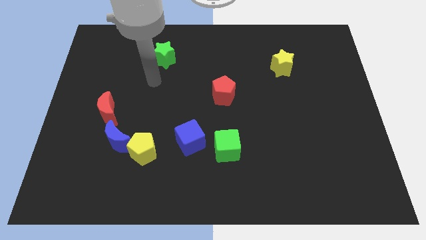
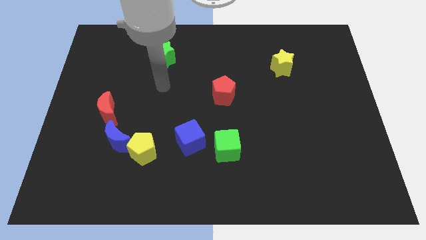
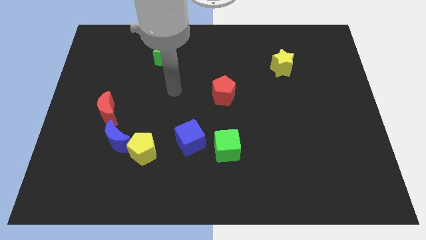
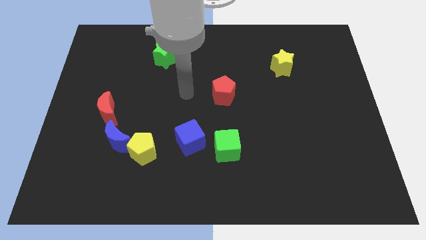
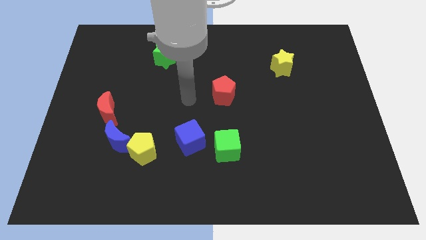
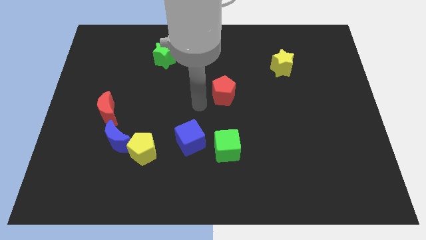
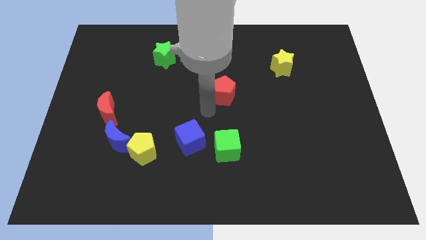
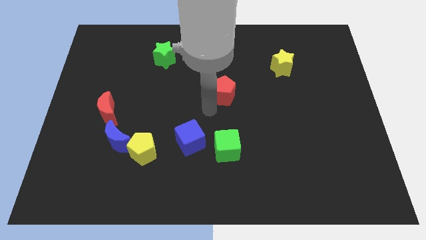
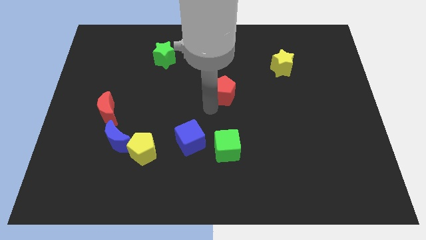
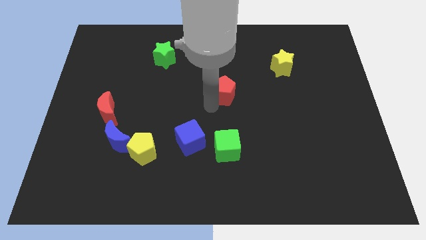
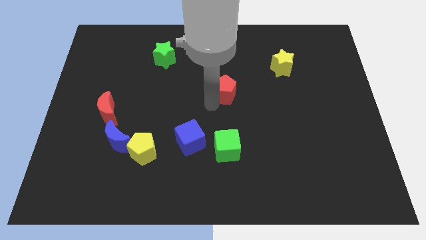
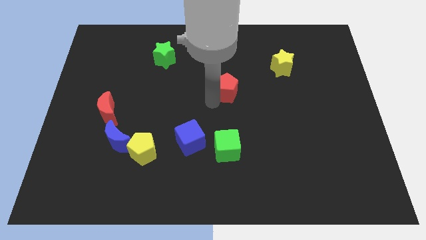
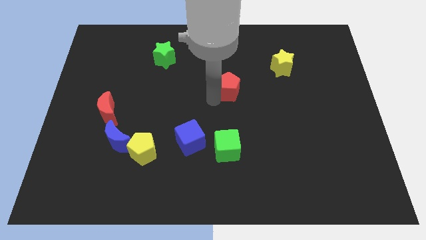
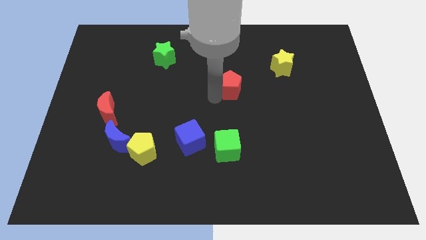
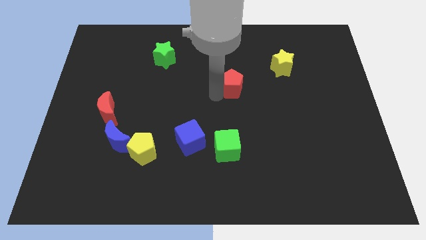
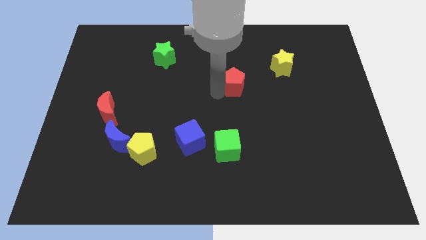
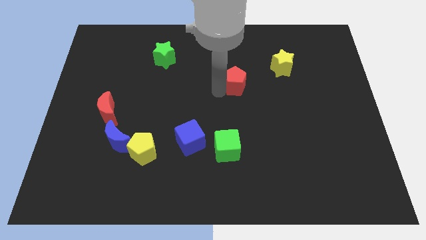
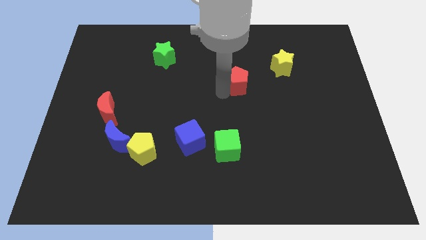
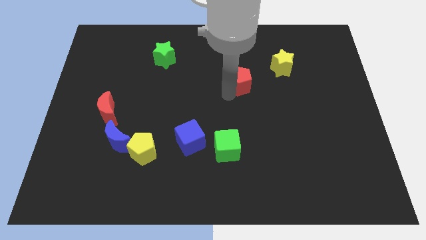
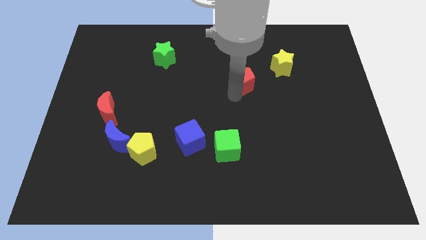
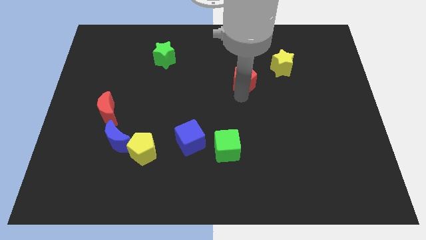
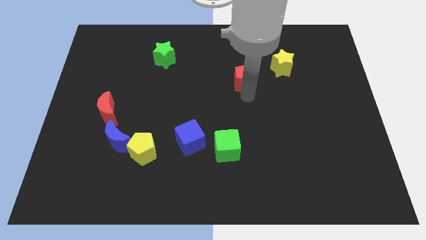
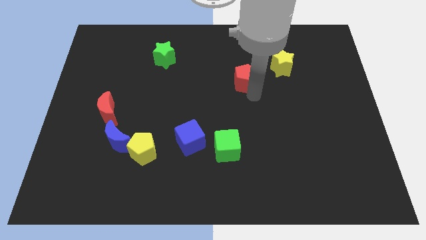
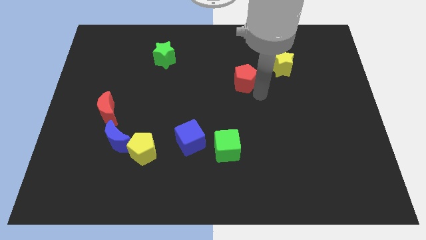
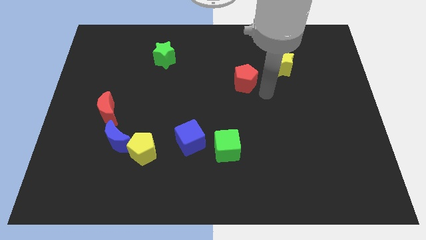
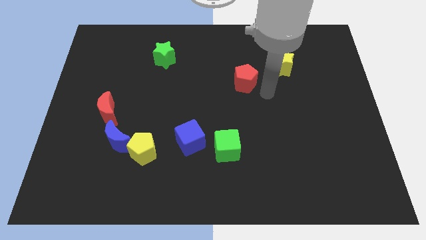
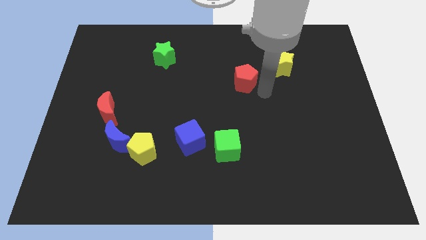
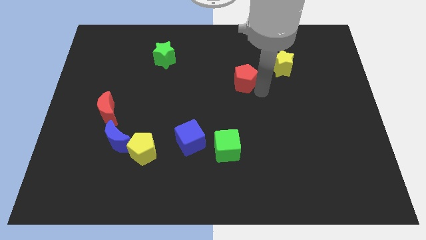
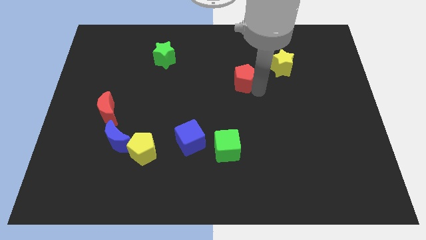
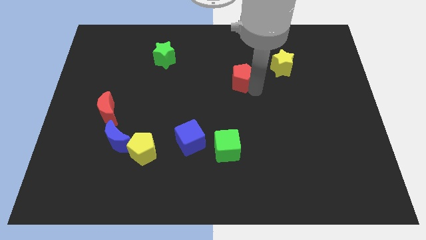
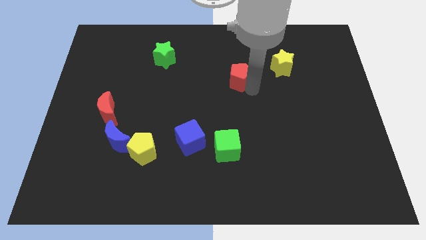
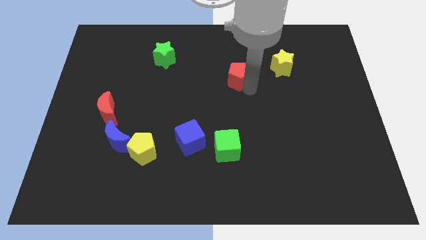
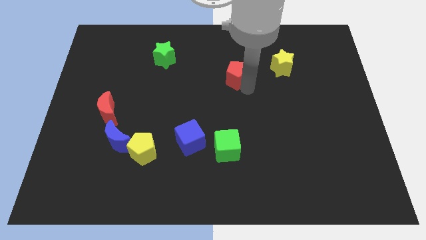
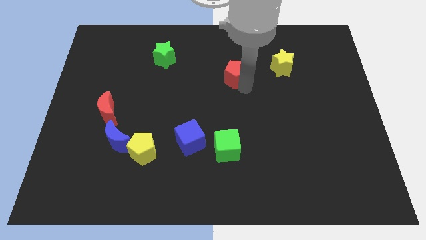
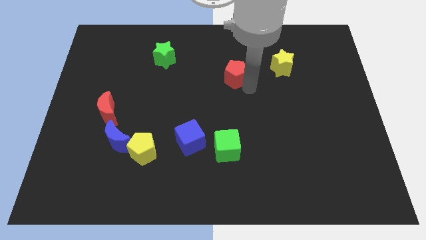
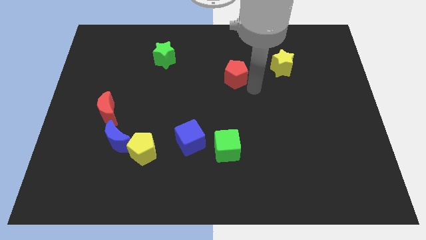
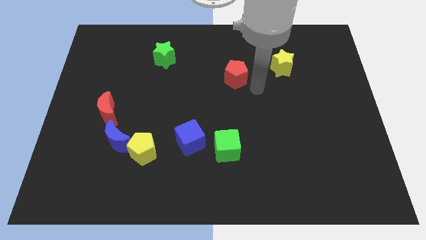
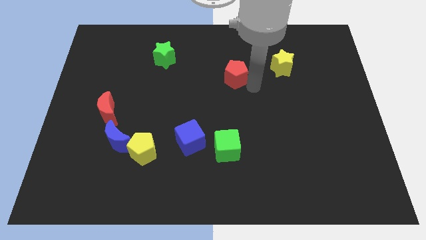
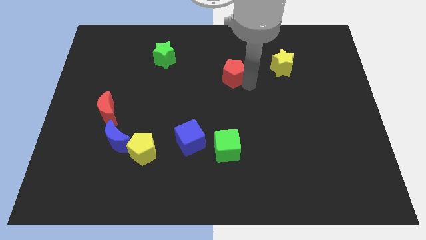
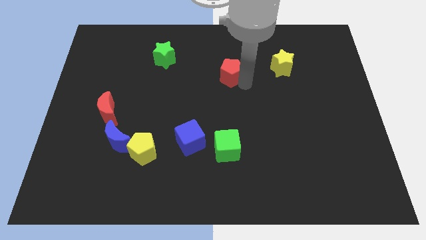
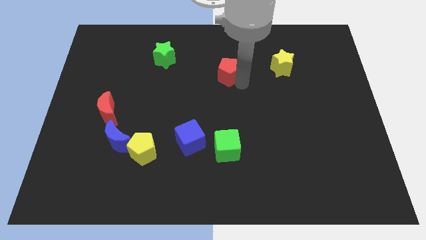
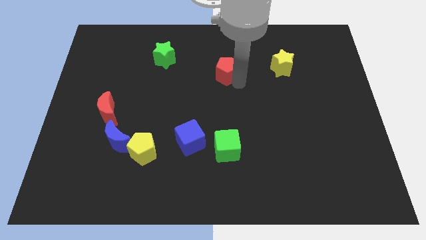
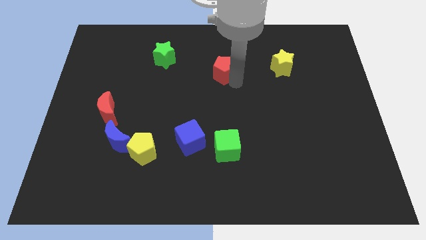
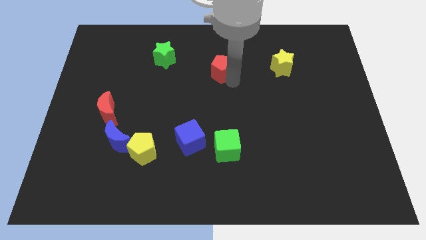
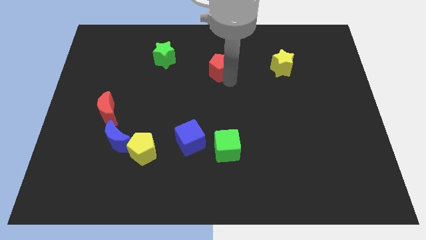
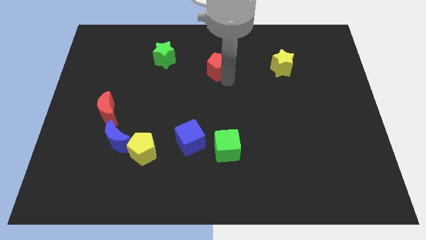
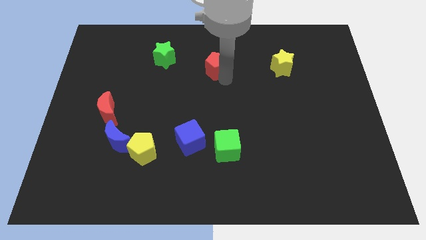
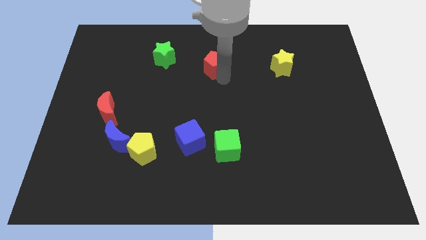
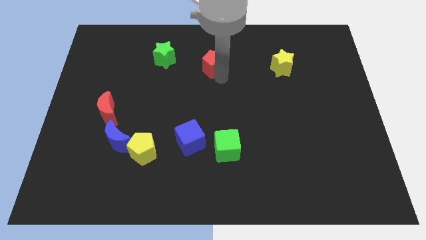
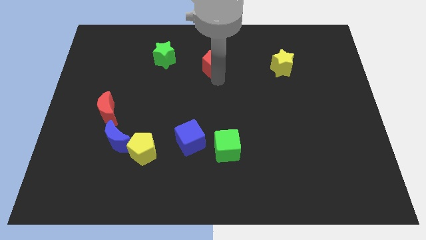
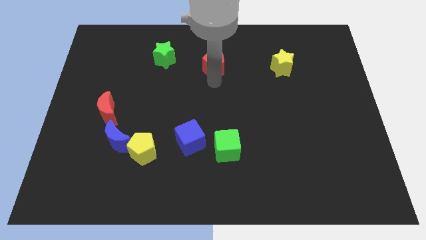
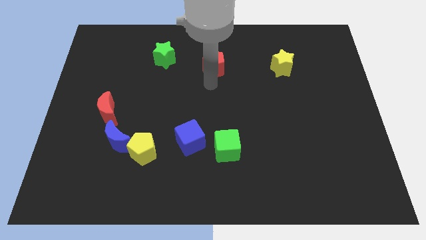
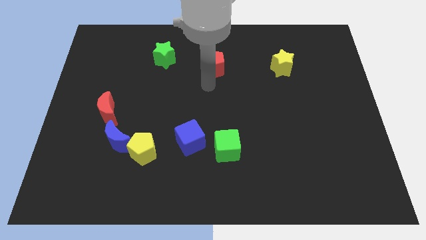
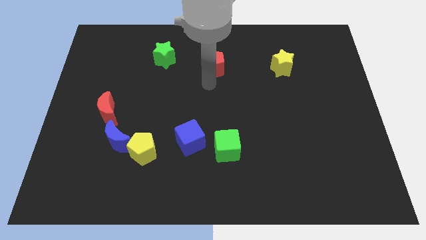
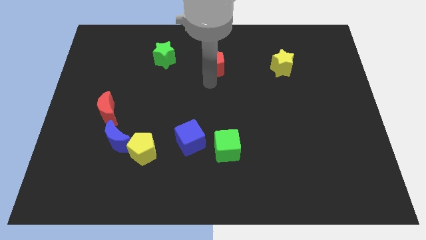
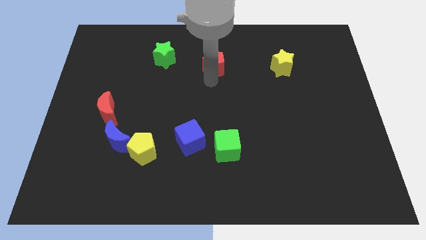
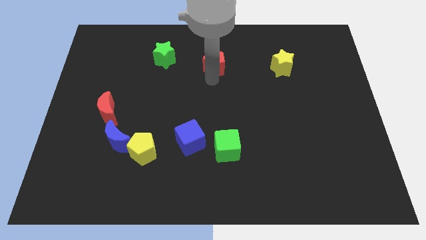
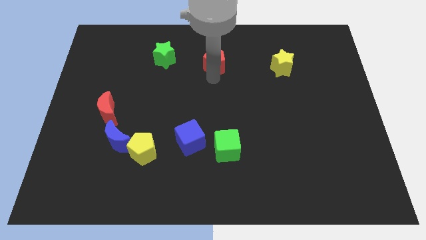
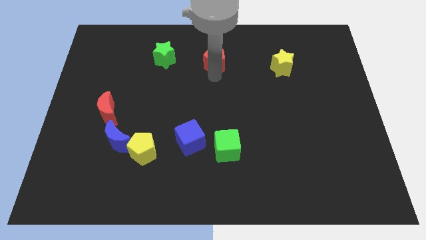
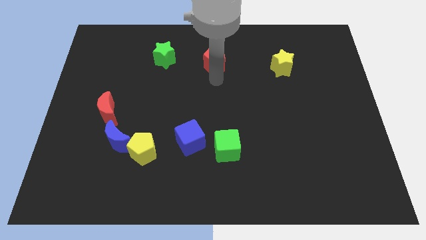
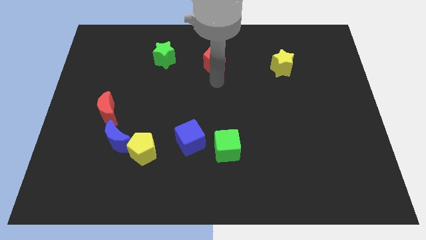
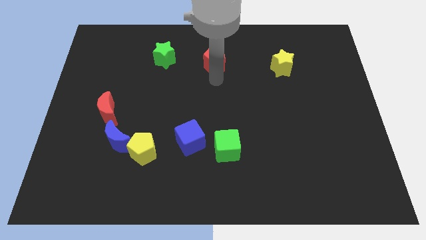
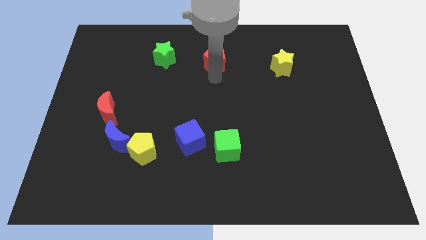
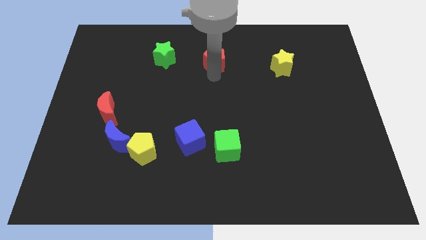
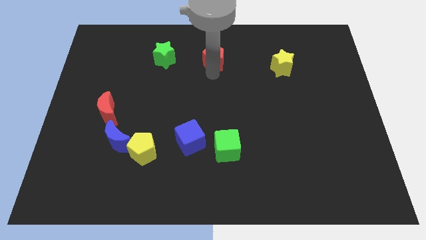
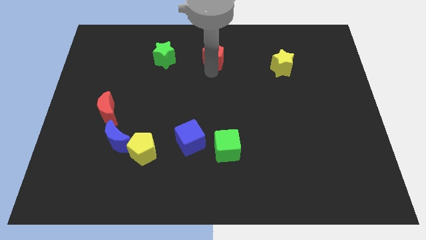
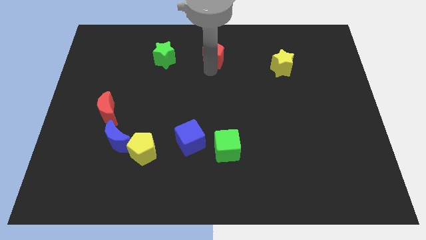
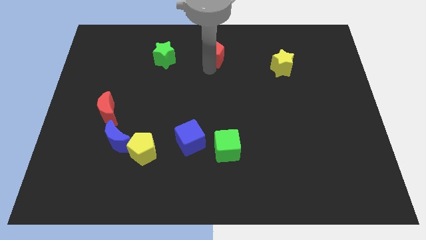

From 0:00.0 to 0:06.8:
put the red pentagon to the top

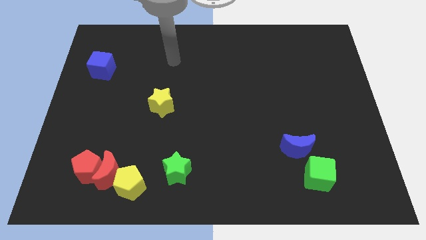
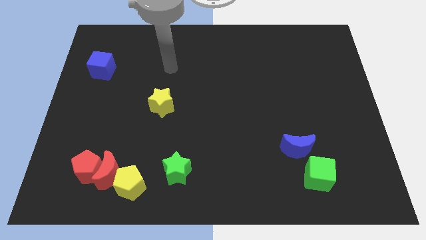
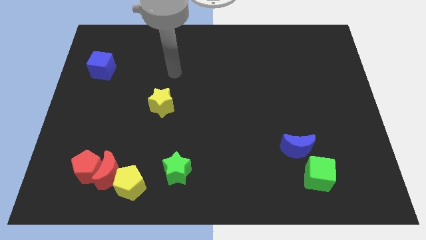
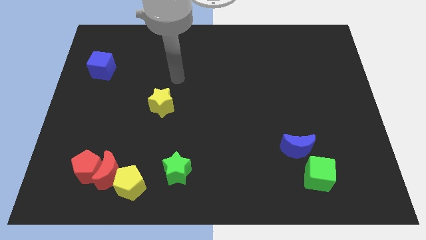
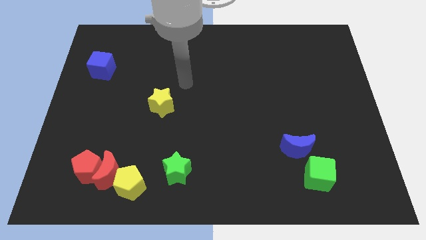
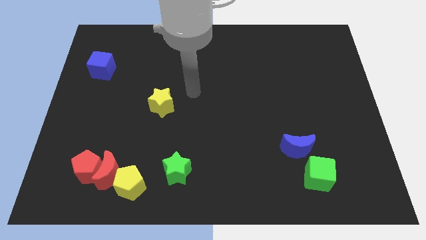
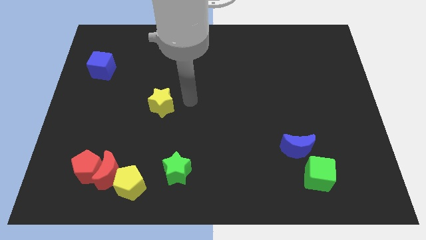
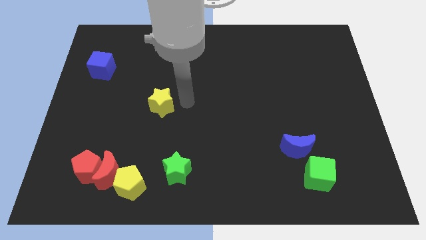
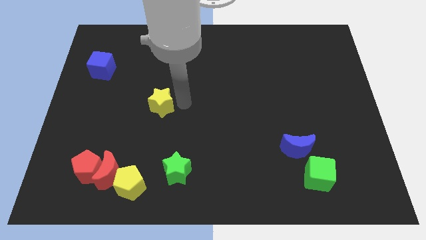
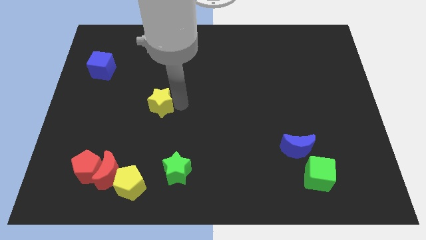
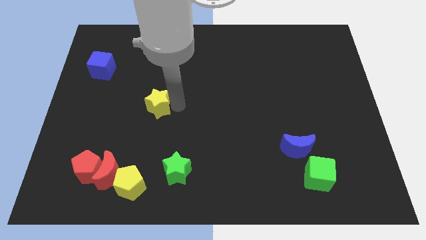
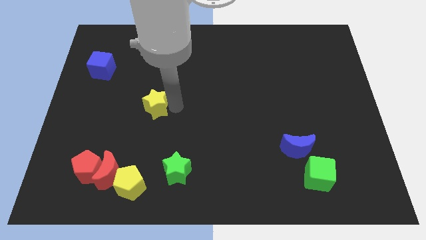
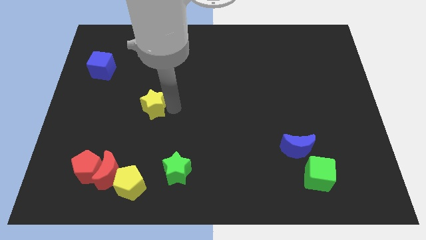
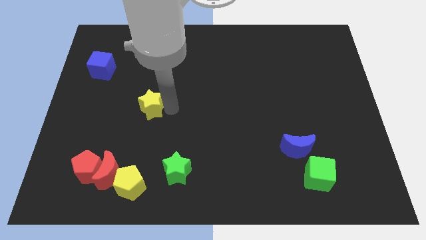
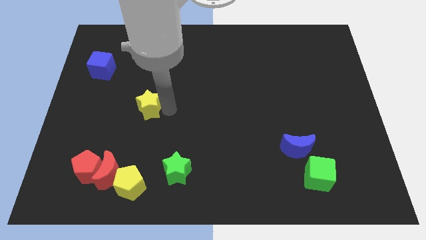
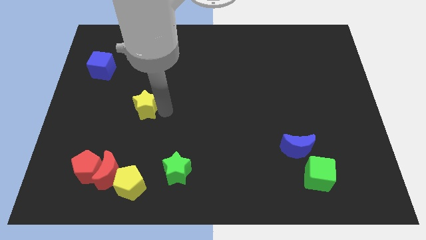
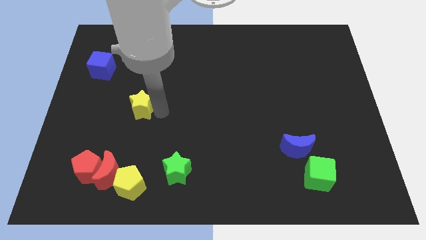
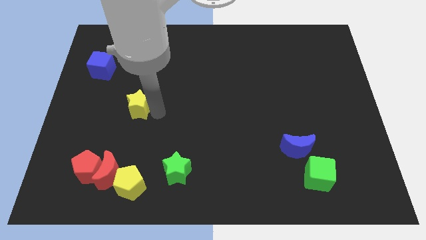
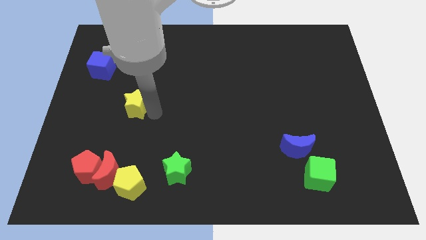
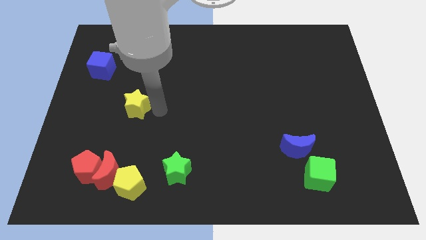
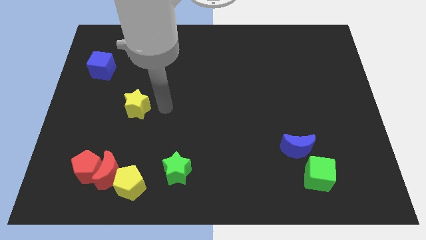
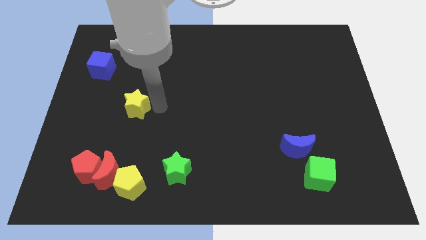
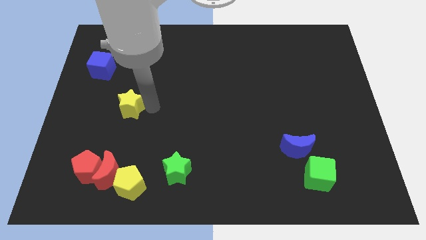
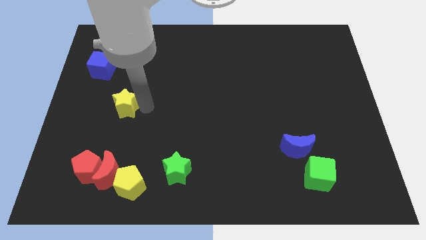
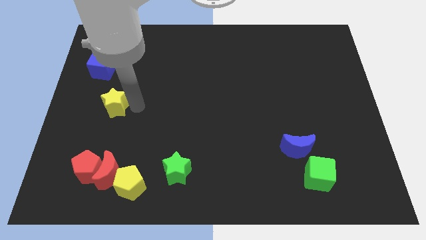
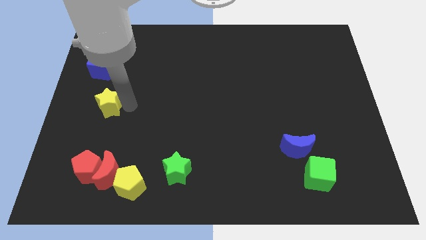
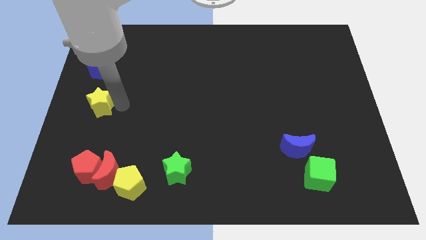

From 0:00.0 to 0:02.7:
push the yellow star to the center left
